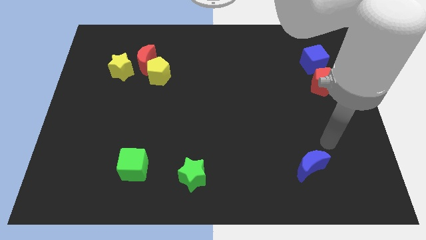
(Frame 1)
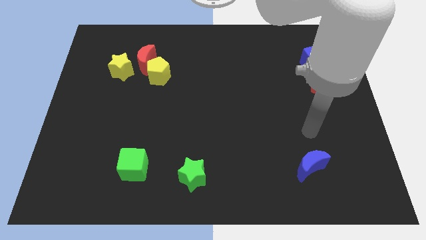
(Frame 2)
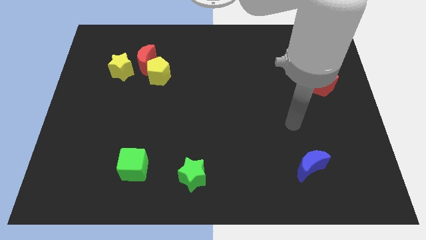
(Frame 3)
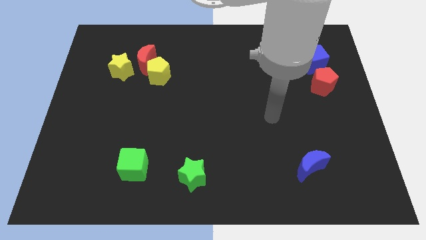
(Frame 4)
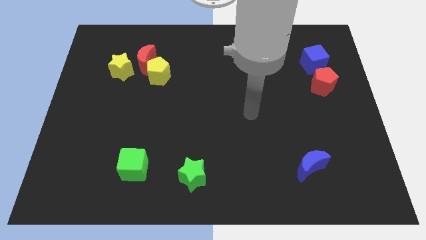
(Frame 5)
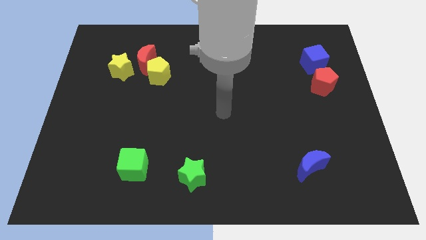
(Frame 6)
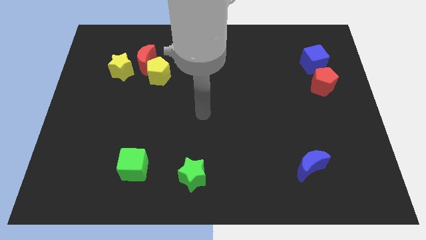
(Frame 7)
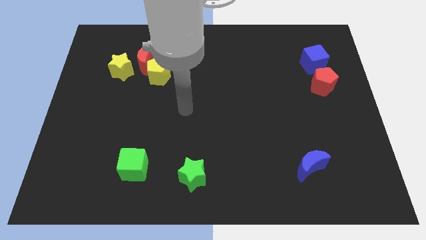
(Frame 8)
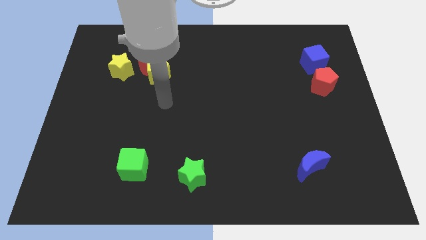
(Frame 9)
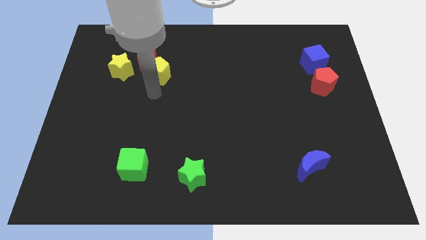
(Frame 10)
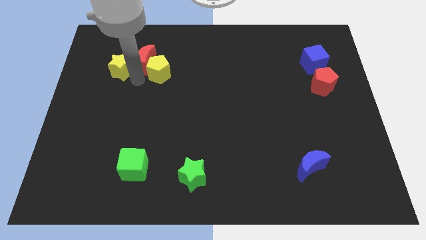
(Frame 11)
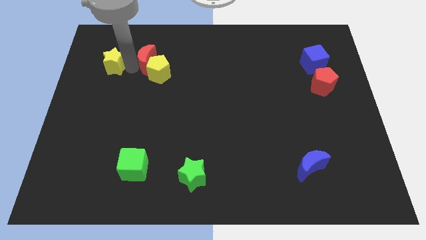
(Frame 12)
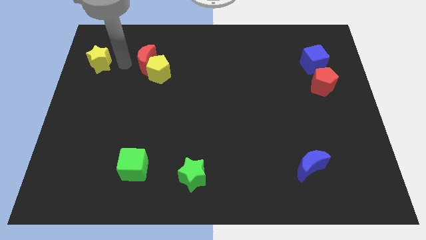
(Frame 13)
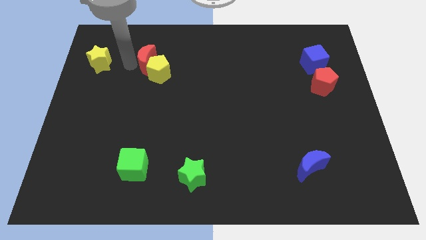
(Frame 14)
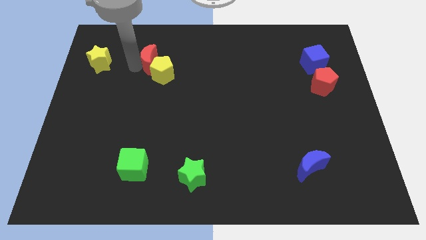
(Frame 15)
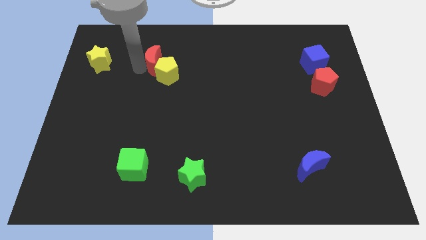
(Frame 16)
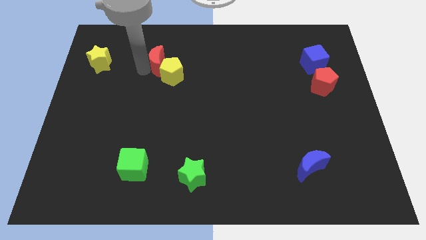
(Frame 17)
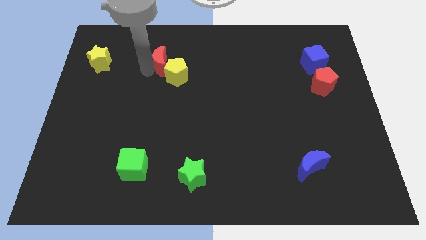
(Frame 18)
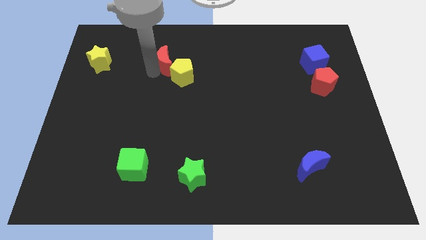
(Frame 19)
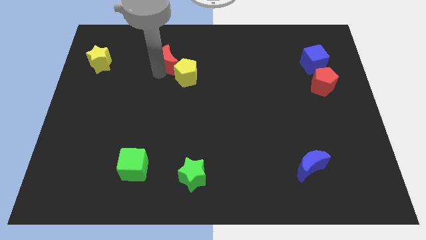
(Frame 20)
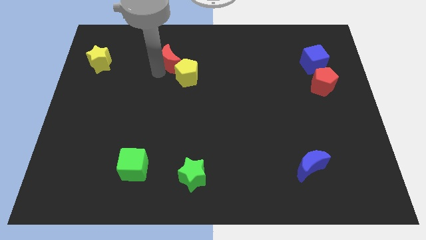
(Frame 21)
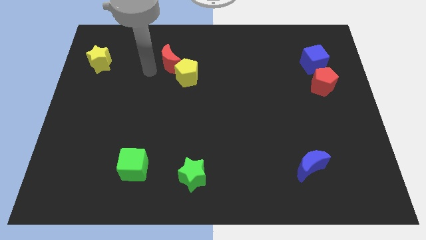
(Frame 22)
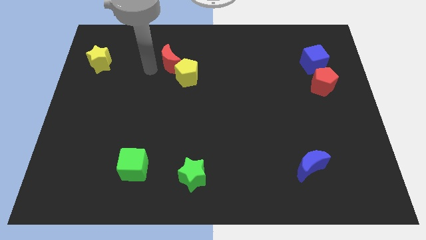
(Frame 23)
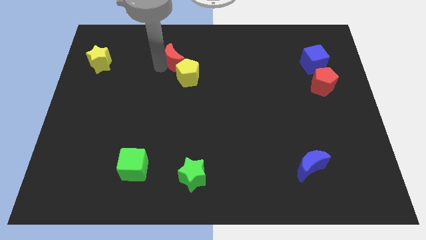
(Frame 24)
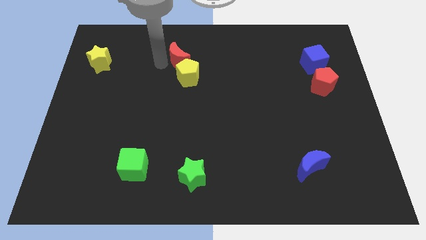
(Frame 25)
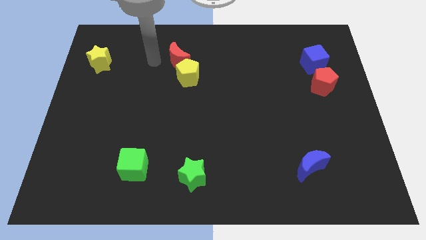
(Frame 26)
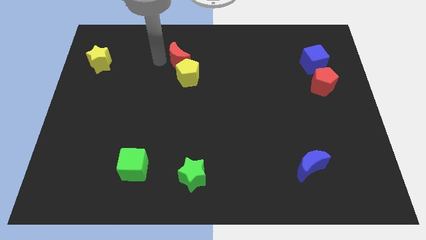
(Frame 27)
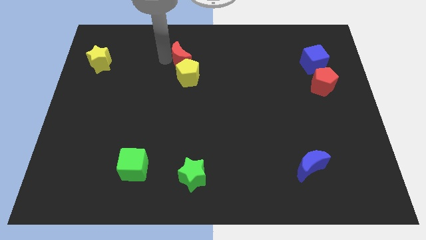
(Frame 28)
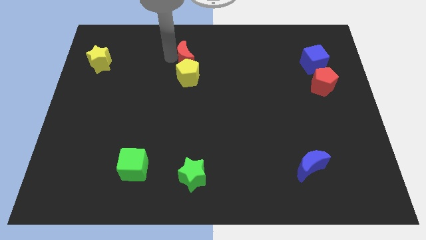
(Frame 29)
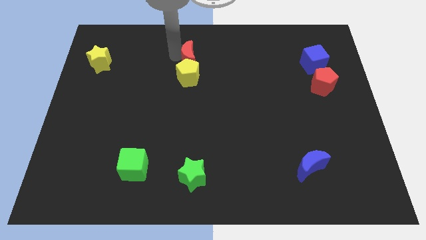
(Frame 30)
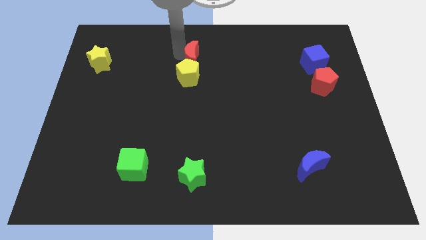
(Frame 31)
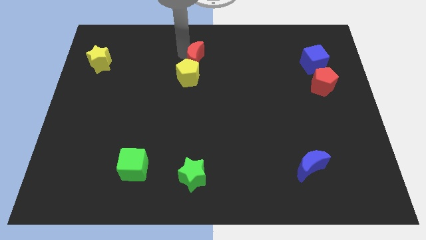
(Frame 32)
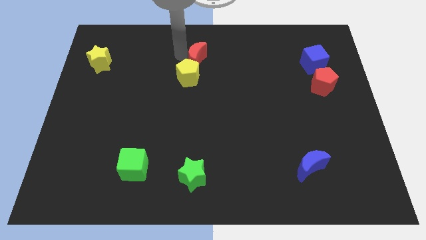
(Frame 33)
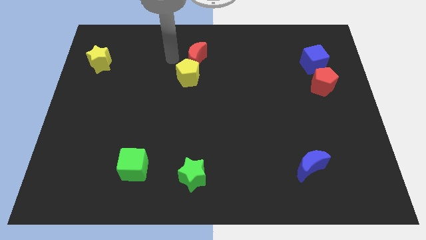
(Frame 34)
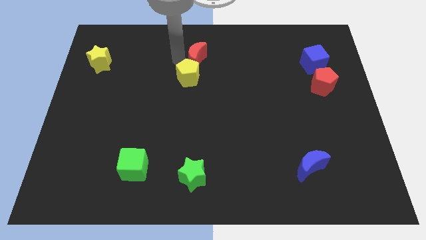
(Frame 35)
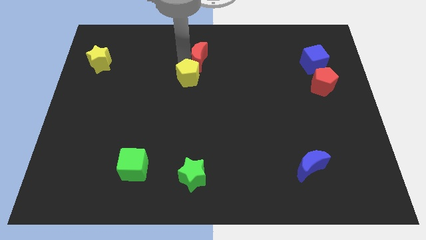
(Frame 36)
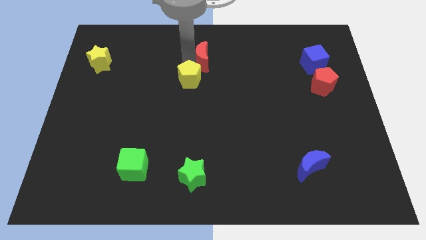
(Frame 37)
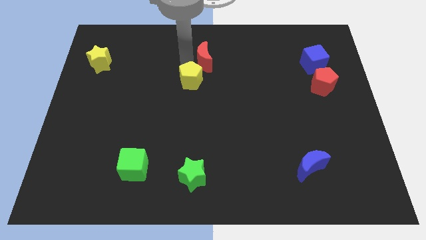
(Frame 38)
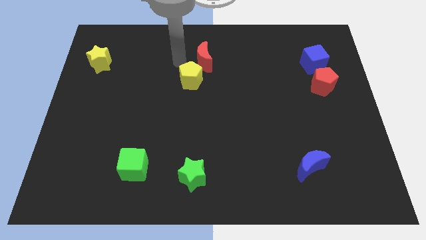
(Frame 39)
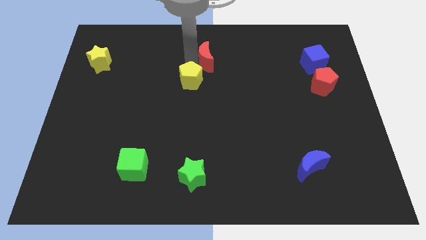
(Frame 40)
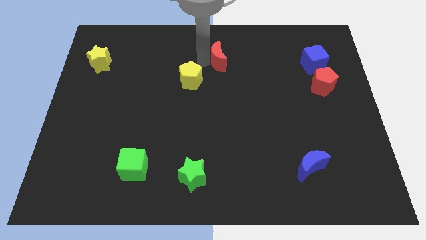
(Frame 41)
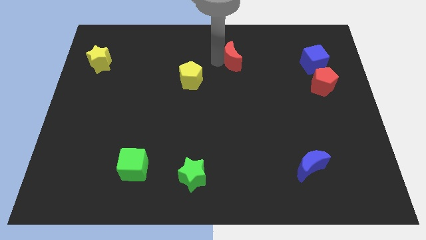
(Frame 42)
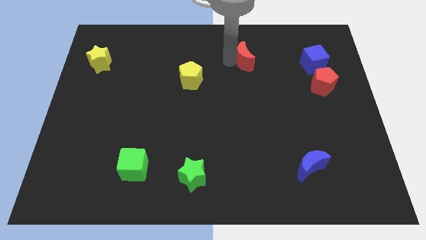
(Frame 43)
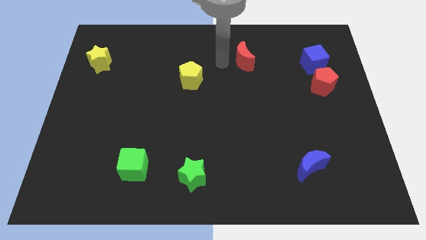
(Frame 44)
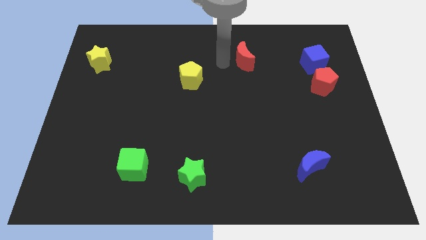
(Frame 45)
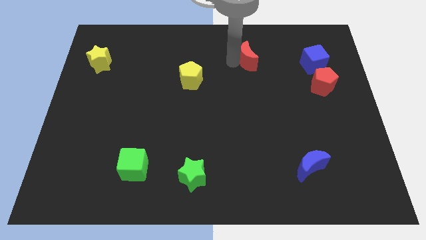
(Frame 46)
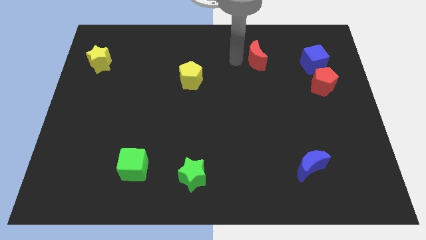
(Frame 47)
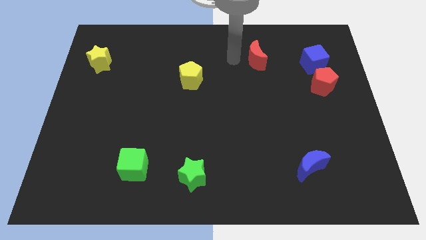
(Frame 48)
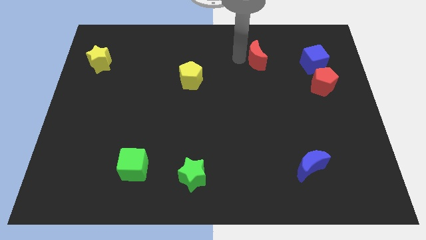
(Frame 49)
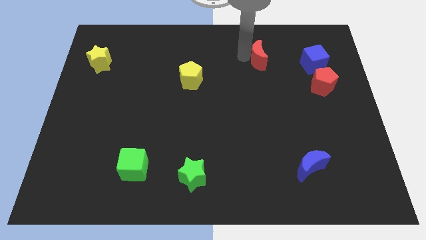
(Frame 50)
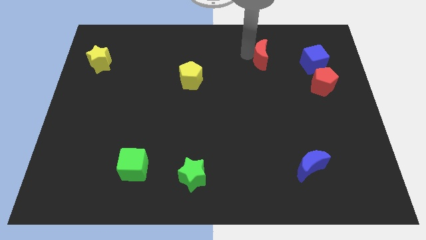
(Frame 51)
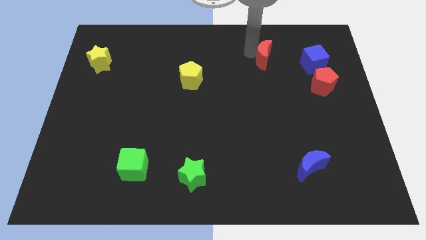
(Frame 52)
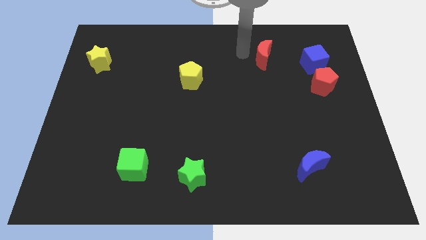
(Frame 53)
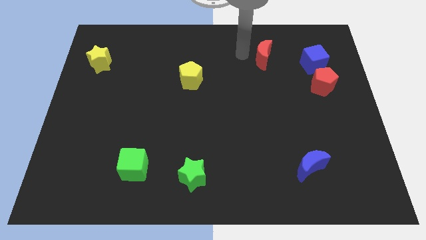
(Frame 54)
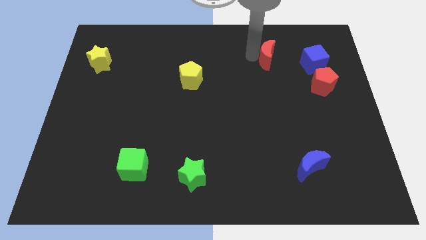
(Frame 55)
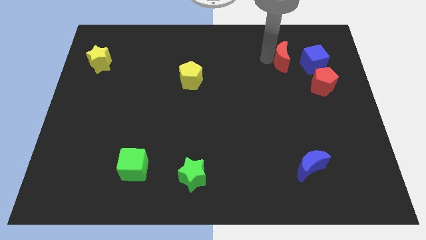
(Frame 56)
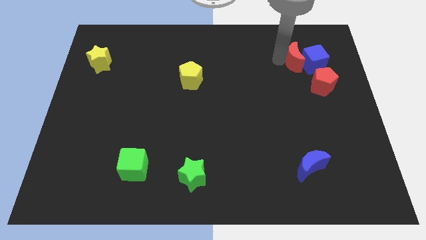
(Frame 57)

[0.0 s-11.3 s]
slide the red moon close to the blue cube

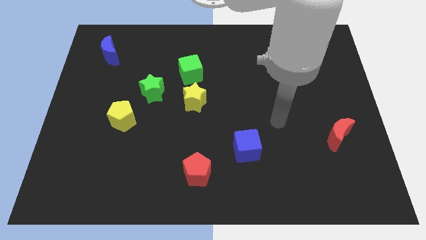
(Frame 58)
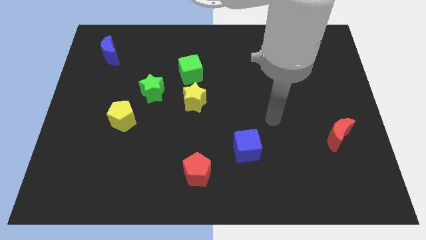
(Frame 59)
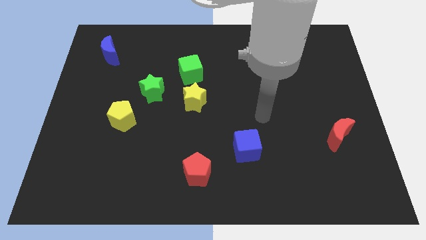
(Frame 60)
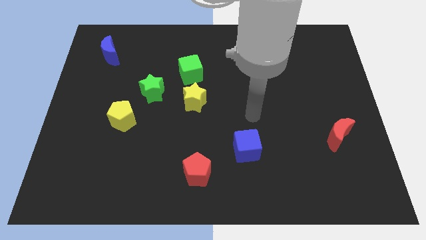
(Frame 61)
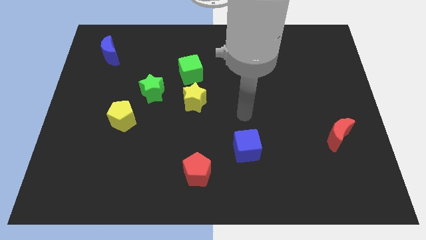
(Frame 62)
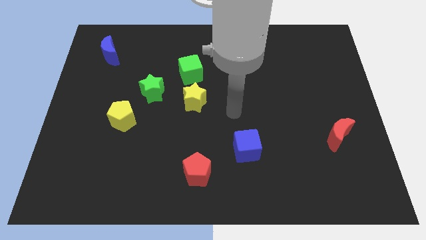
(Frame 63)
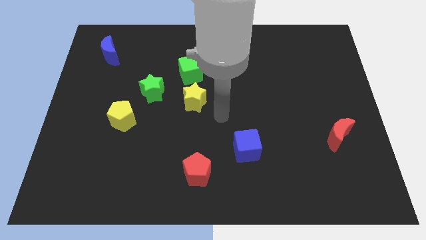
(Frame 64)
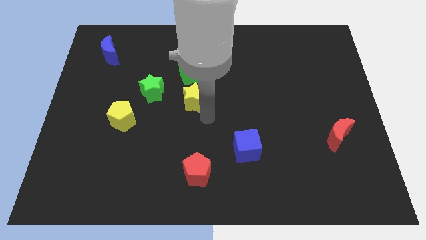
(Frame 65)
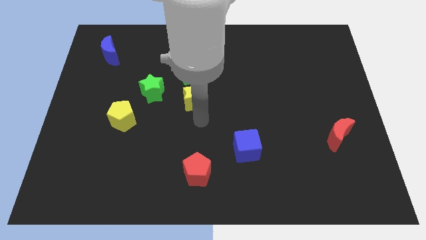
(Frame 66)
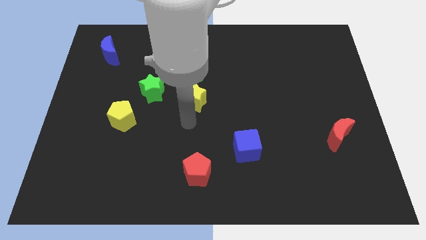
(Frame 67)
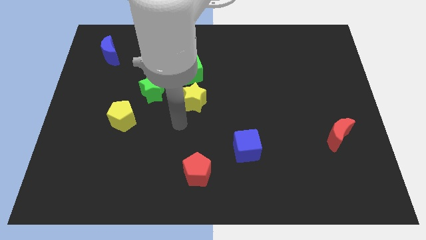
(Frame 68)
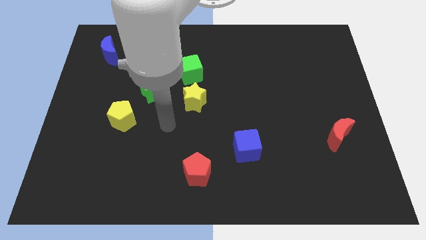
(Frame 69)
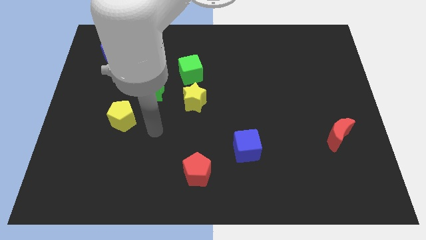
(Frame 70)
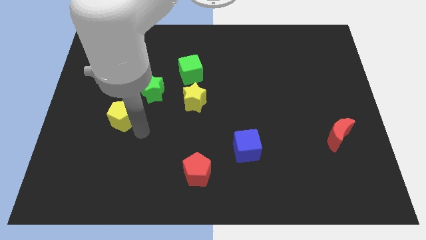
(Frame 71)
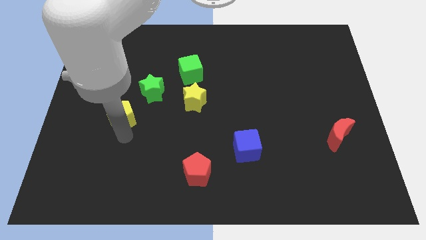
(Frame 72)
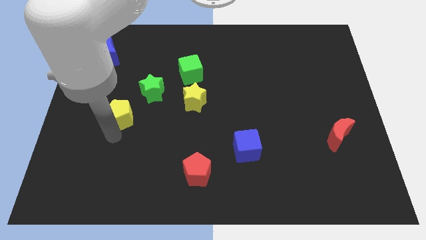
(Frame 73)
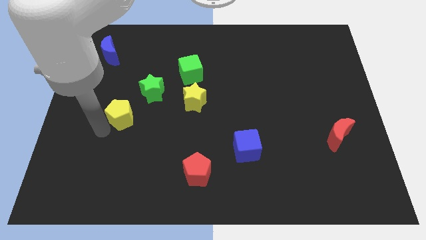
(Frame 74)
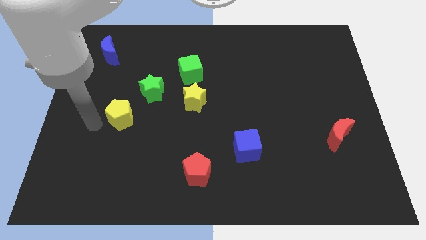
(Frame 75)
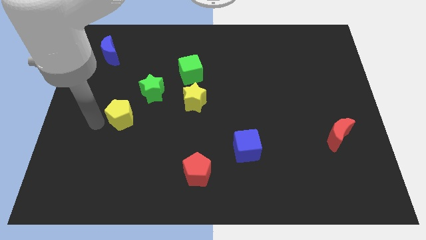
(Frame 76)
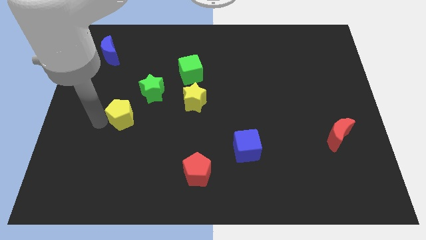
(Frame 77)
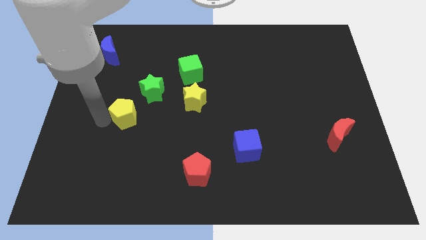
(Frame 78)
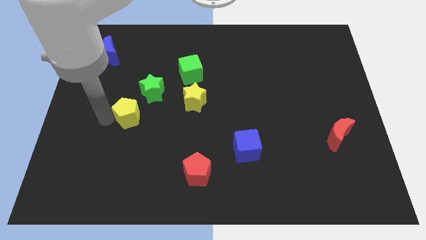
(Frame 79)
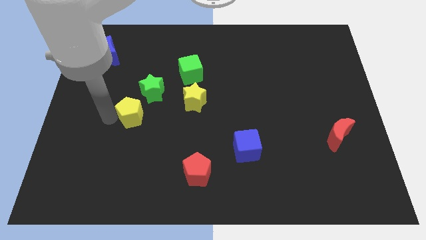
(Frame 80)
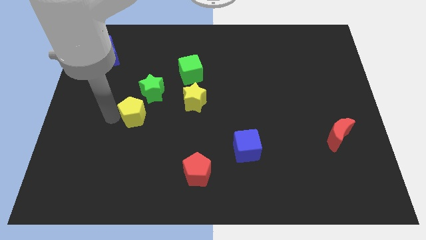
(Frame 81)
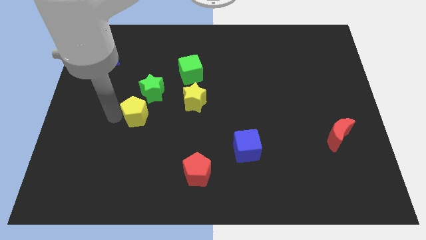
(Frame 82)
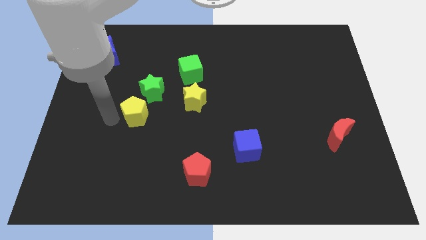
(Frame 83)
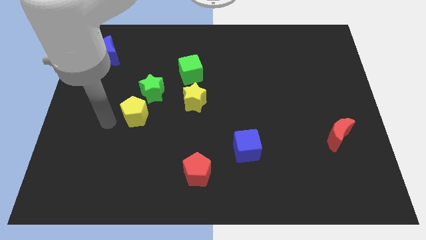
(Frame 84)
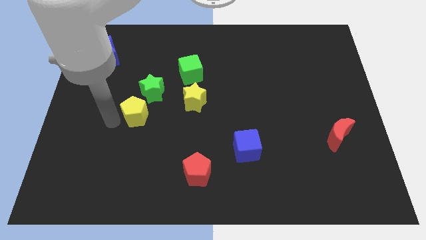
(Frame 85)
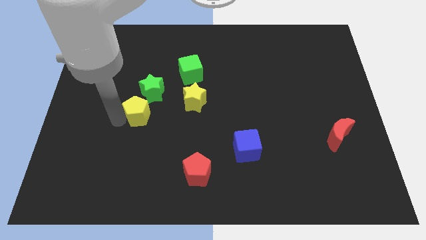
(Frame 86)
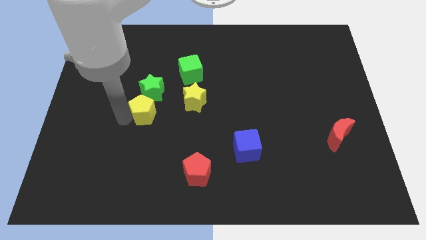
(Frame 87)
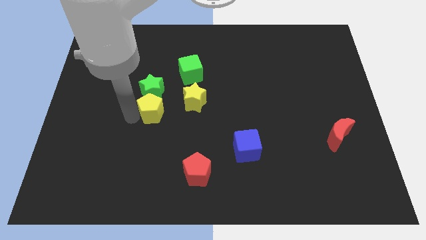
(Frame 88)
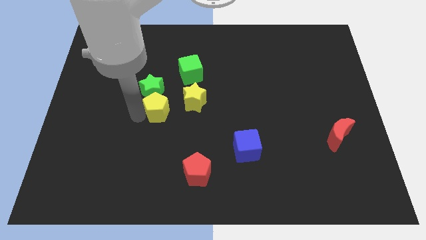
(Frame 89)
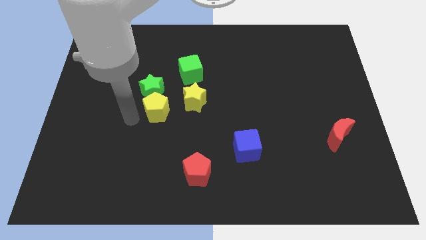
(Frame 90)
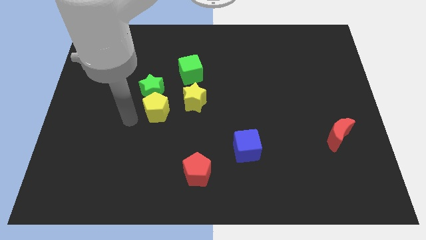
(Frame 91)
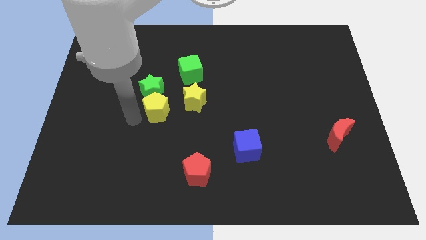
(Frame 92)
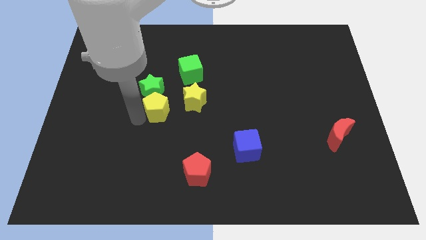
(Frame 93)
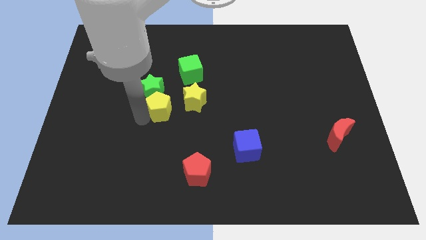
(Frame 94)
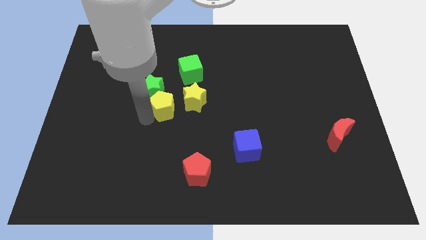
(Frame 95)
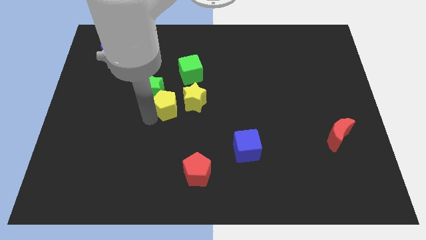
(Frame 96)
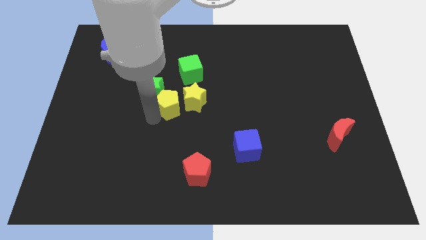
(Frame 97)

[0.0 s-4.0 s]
slide the yellow pentagon towards the yellow star
